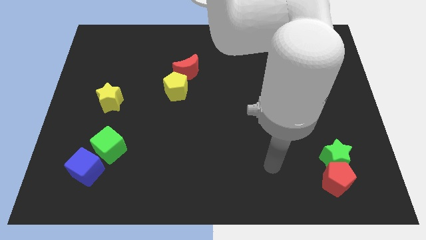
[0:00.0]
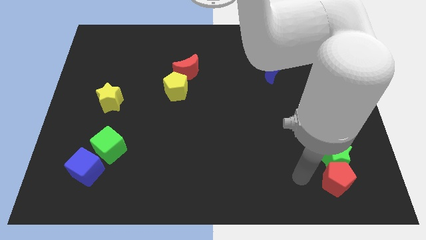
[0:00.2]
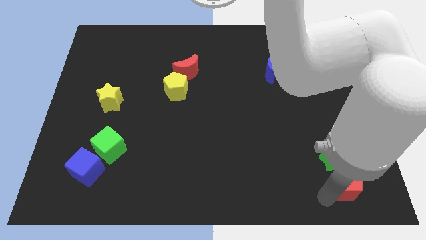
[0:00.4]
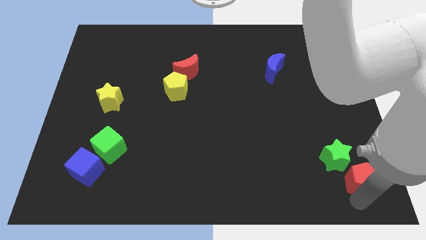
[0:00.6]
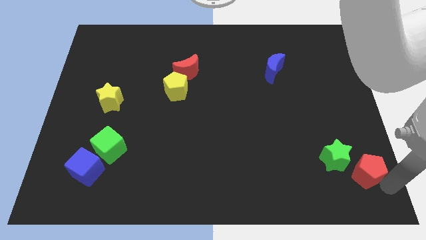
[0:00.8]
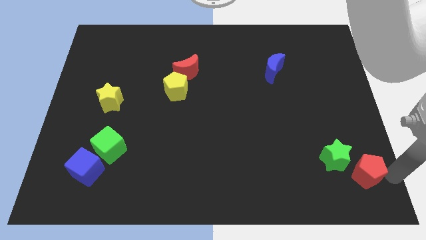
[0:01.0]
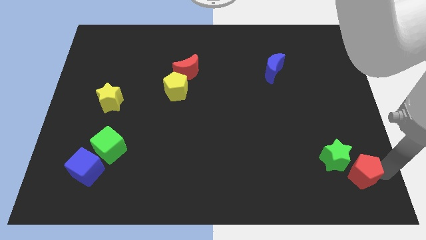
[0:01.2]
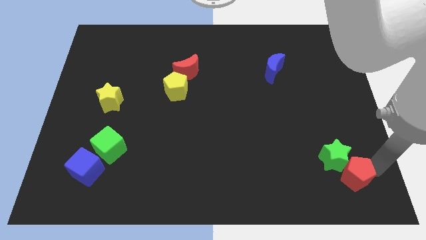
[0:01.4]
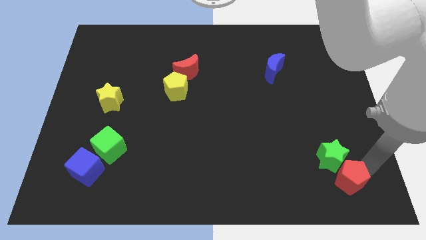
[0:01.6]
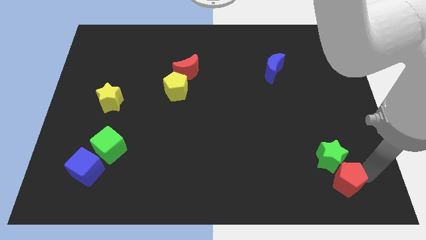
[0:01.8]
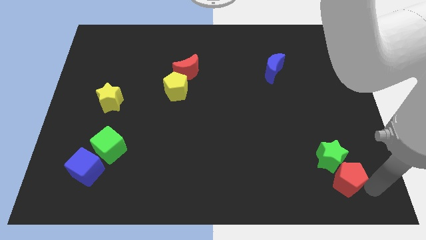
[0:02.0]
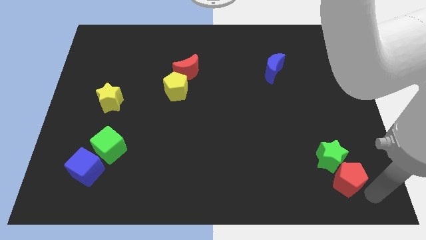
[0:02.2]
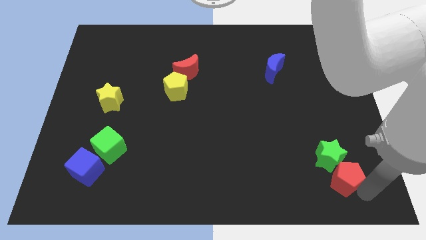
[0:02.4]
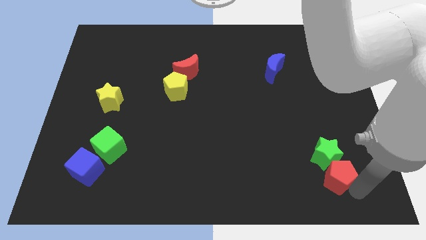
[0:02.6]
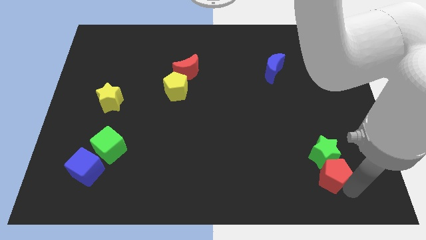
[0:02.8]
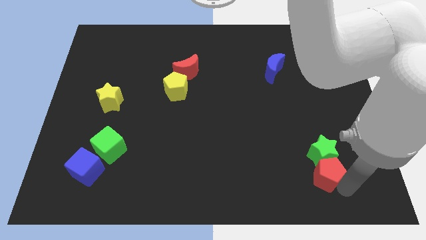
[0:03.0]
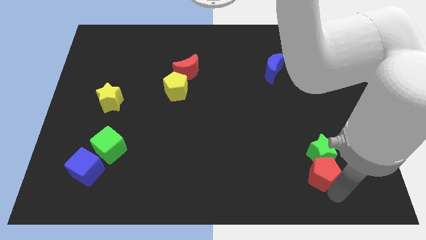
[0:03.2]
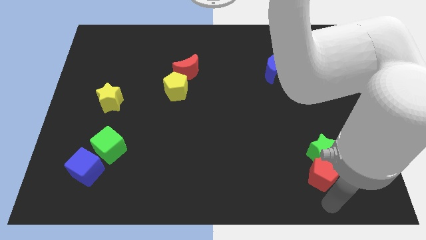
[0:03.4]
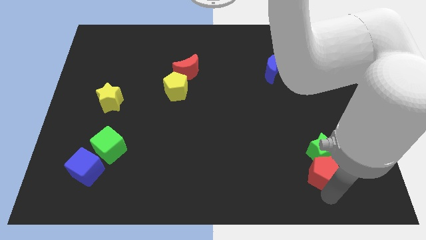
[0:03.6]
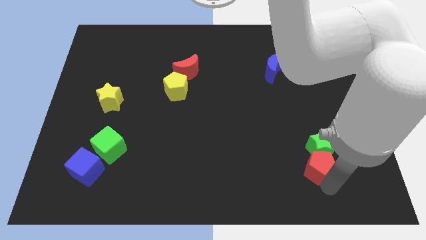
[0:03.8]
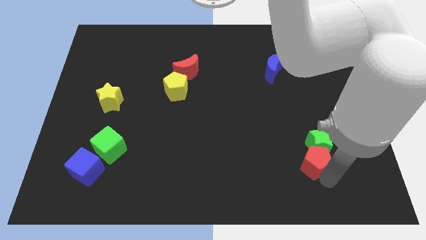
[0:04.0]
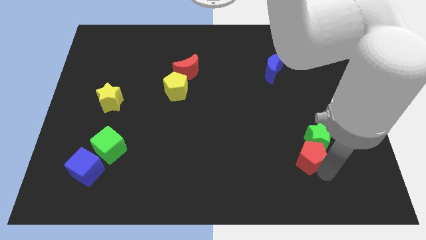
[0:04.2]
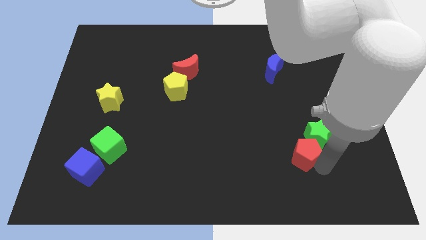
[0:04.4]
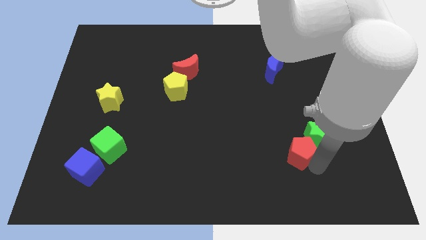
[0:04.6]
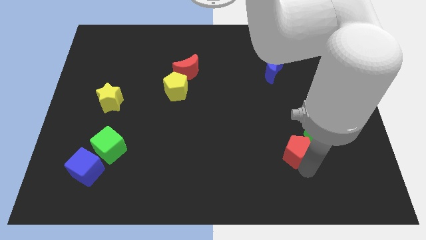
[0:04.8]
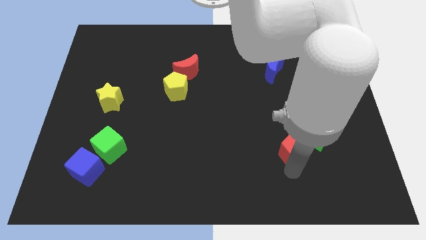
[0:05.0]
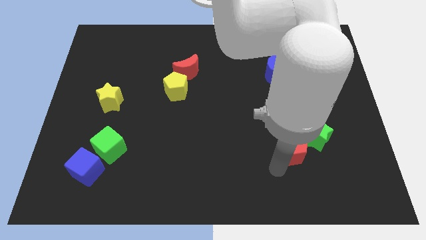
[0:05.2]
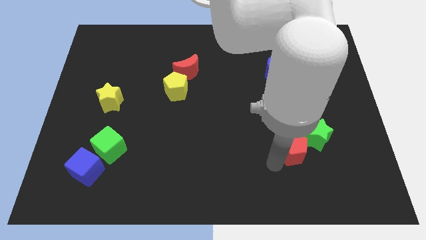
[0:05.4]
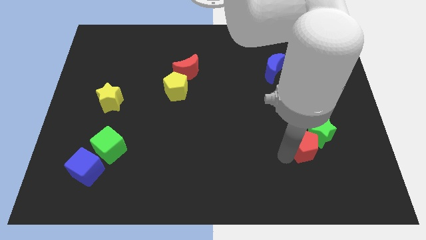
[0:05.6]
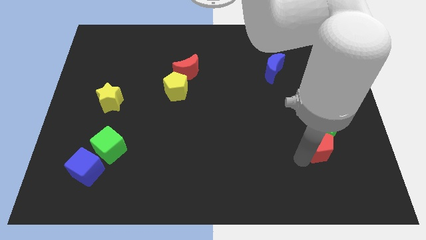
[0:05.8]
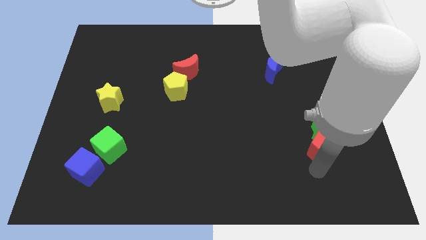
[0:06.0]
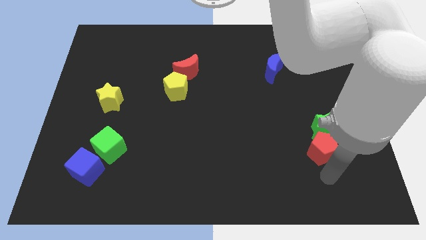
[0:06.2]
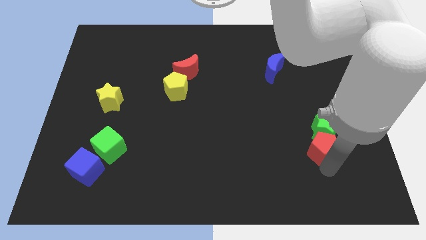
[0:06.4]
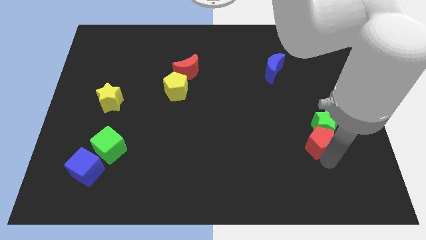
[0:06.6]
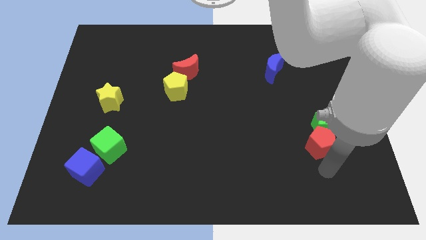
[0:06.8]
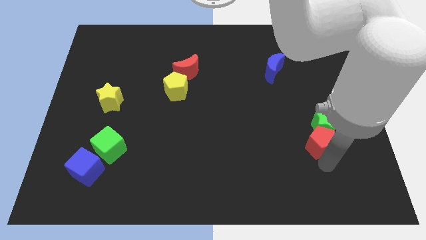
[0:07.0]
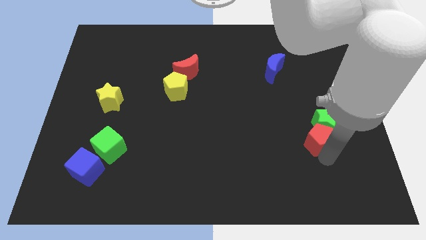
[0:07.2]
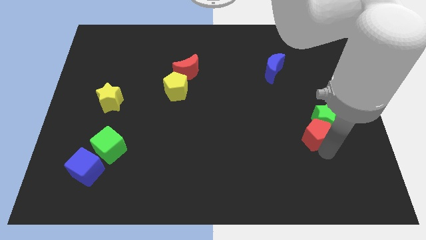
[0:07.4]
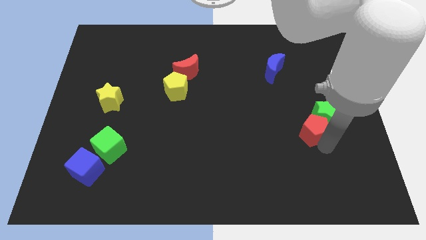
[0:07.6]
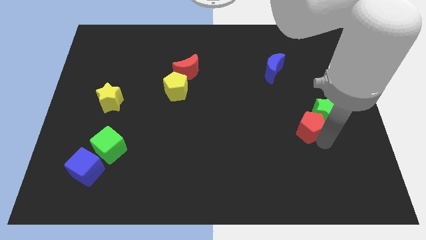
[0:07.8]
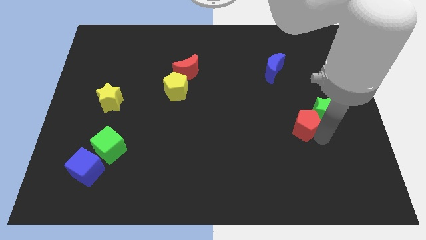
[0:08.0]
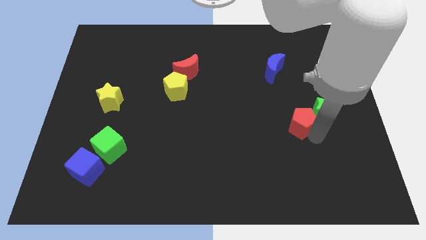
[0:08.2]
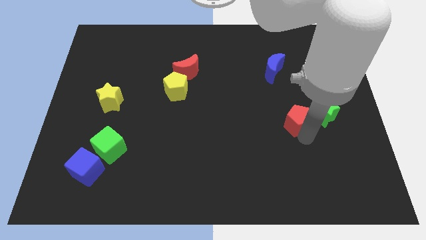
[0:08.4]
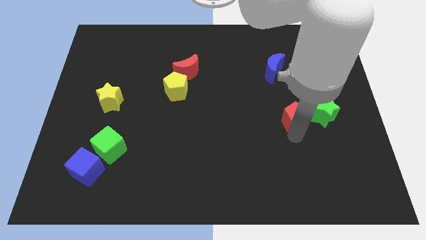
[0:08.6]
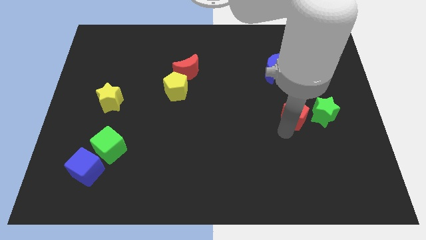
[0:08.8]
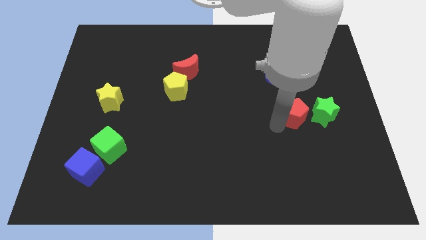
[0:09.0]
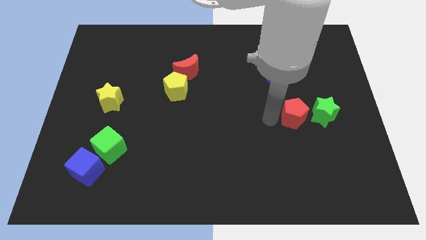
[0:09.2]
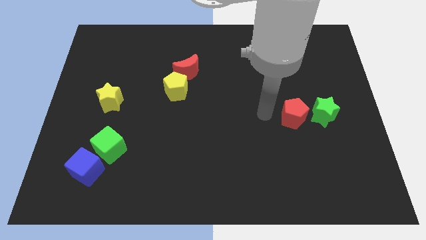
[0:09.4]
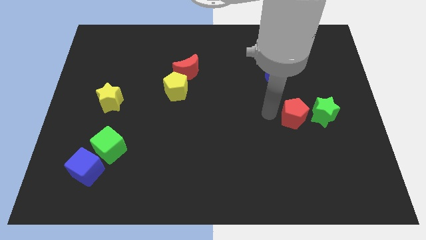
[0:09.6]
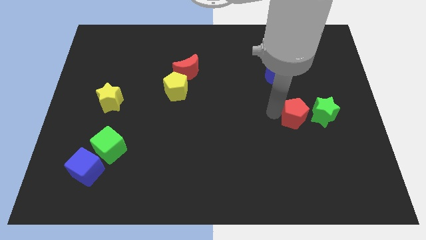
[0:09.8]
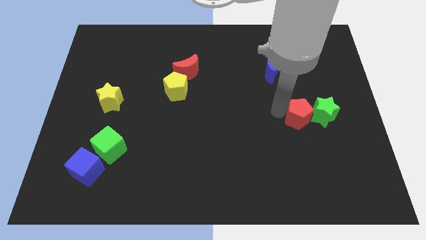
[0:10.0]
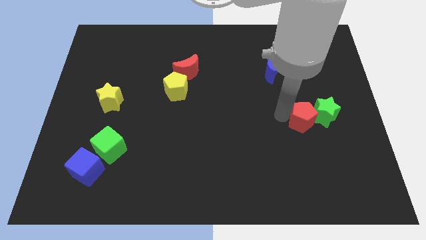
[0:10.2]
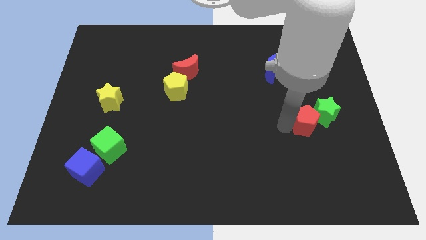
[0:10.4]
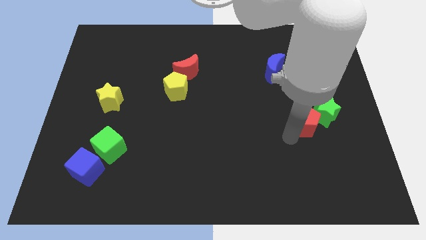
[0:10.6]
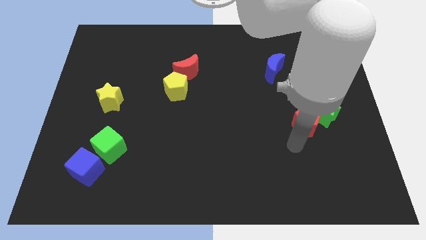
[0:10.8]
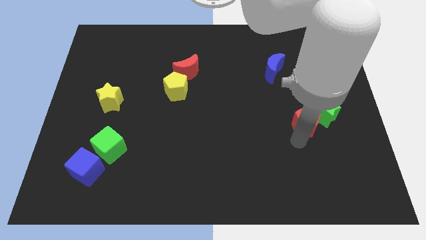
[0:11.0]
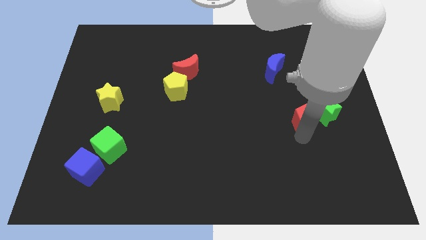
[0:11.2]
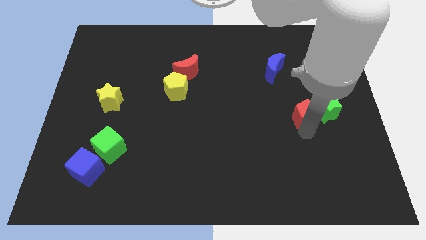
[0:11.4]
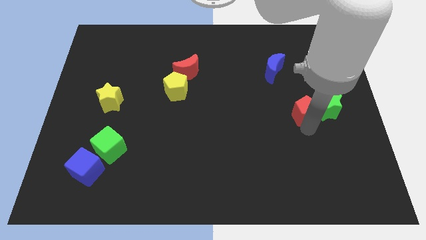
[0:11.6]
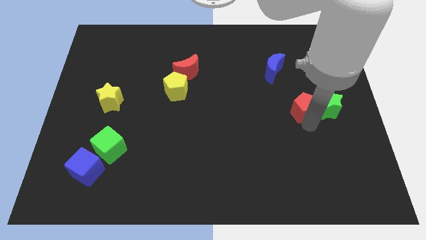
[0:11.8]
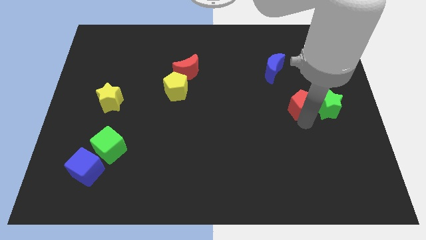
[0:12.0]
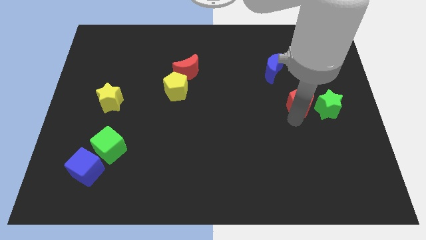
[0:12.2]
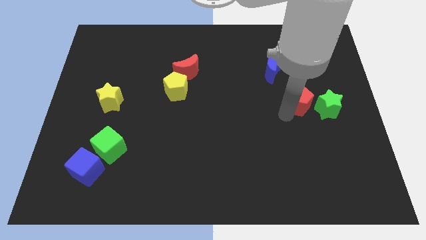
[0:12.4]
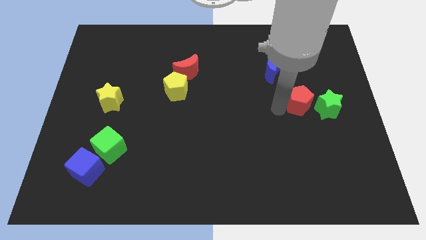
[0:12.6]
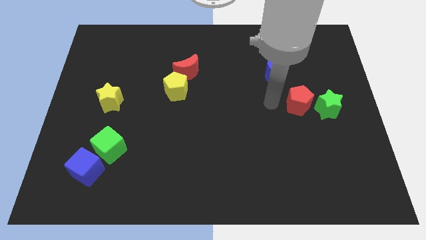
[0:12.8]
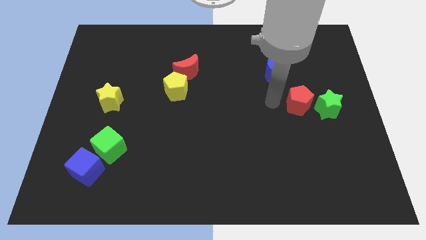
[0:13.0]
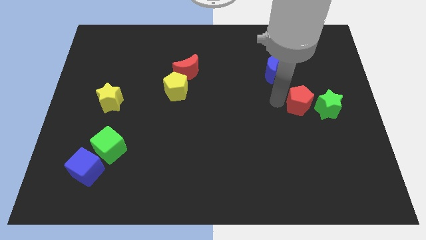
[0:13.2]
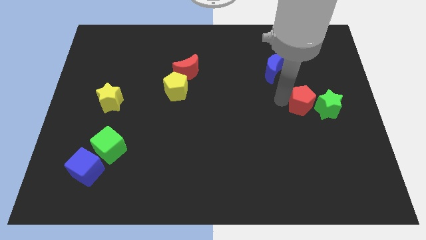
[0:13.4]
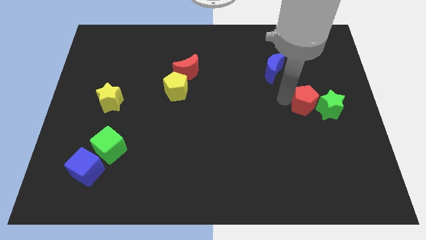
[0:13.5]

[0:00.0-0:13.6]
push the red pentagon upwards

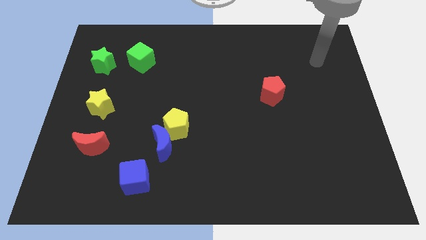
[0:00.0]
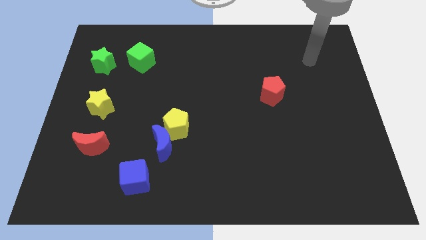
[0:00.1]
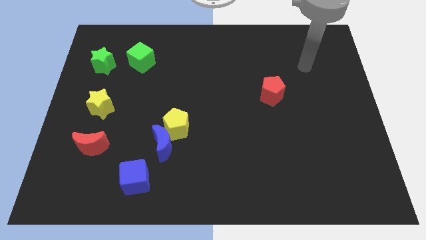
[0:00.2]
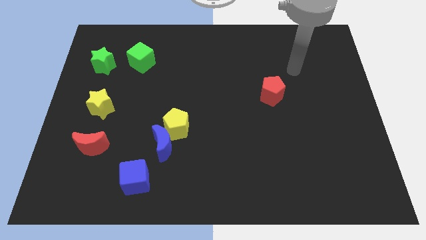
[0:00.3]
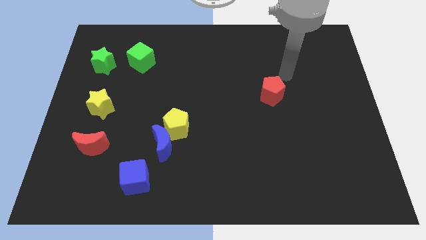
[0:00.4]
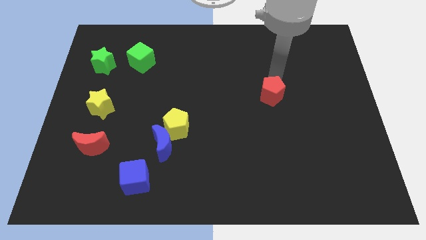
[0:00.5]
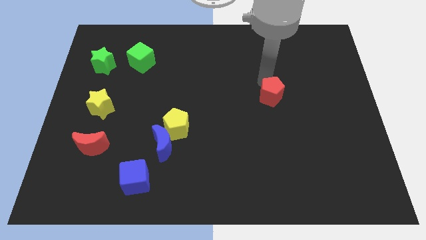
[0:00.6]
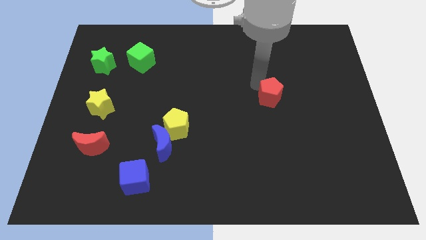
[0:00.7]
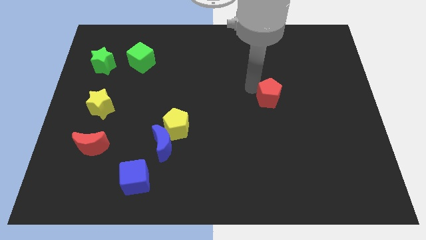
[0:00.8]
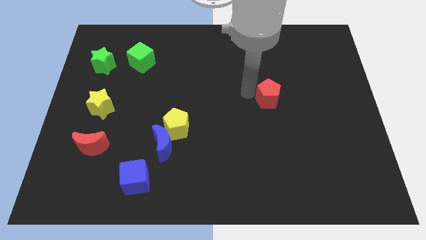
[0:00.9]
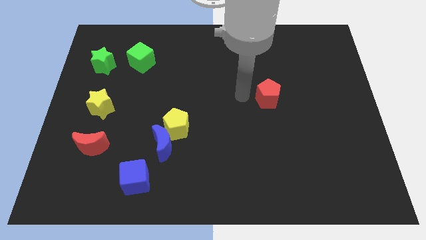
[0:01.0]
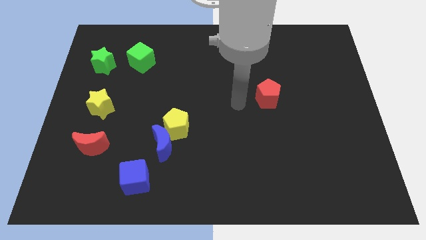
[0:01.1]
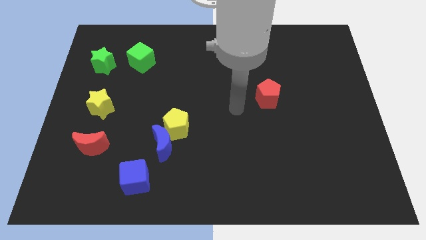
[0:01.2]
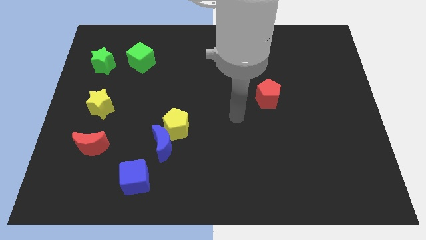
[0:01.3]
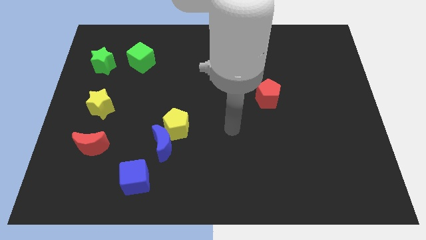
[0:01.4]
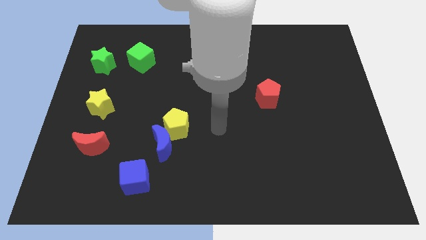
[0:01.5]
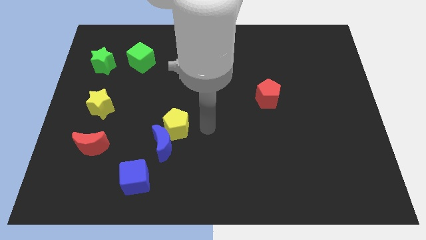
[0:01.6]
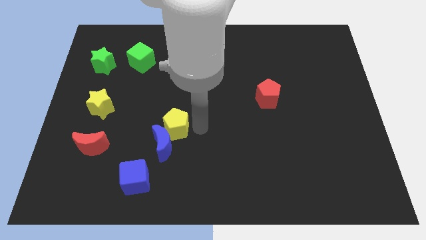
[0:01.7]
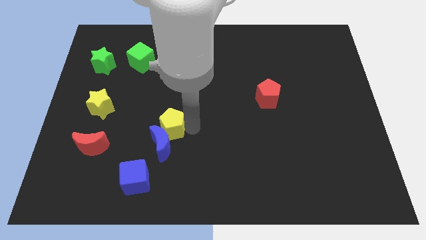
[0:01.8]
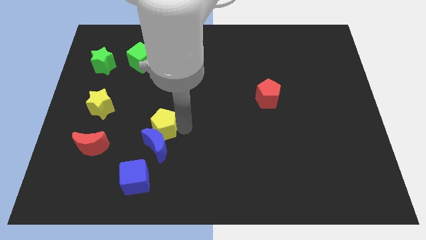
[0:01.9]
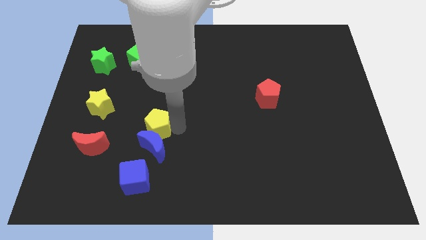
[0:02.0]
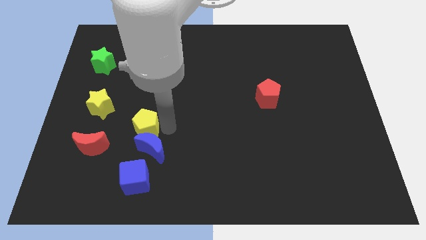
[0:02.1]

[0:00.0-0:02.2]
slightly slide the yellow pentagon to the left
